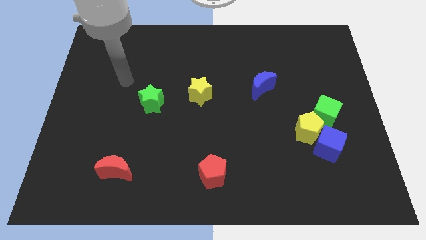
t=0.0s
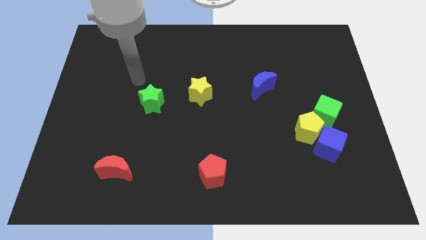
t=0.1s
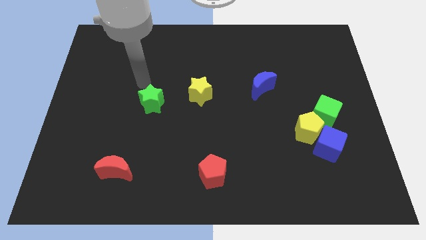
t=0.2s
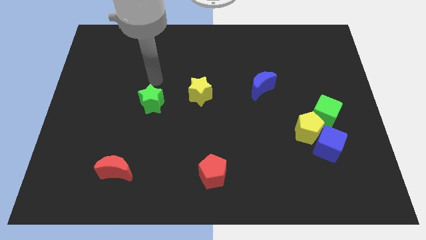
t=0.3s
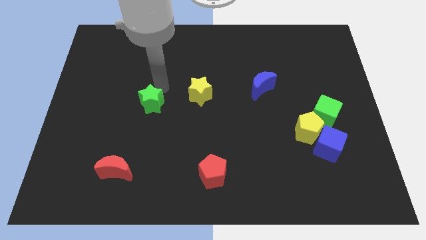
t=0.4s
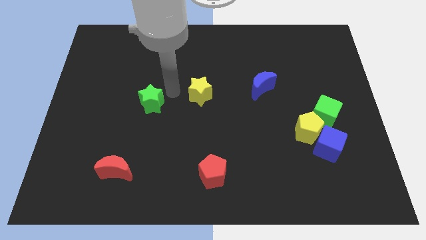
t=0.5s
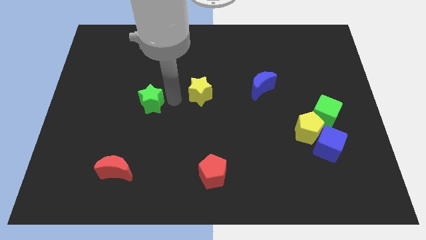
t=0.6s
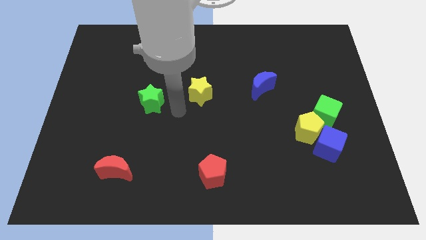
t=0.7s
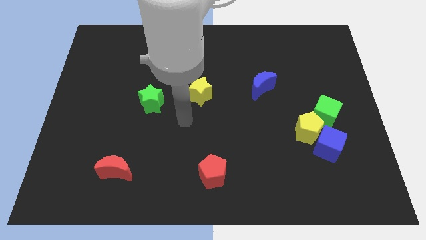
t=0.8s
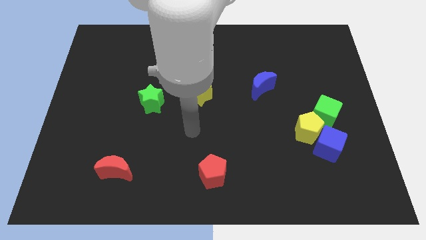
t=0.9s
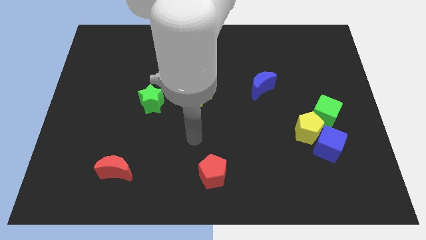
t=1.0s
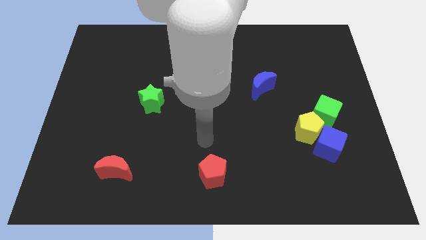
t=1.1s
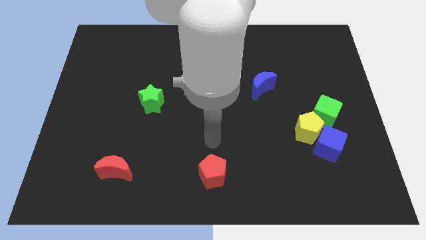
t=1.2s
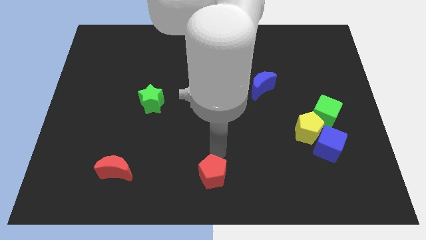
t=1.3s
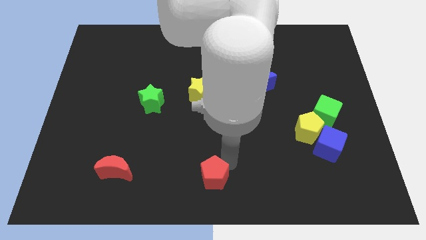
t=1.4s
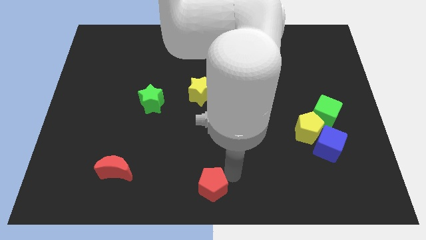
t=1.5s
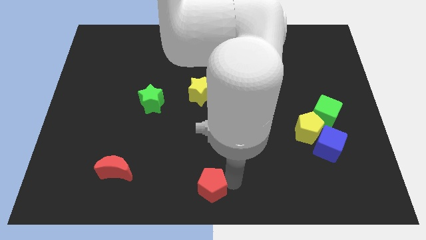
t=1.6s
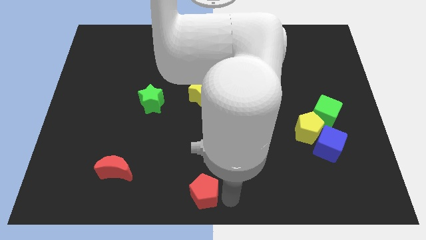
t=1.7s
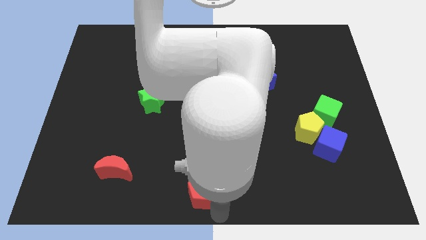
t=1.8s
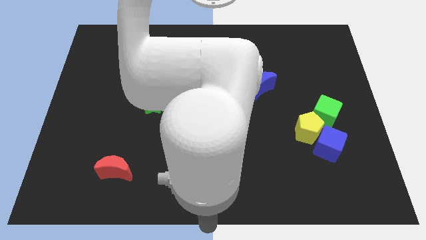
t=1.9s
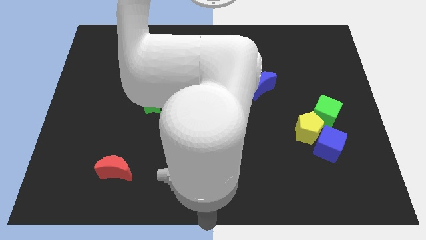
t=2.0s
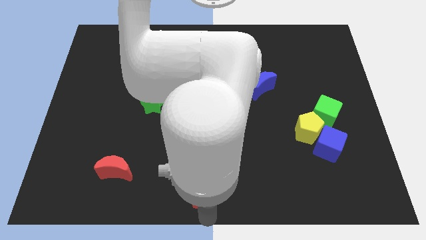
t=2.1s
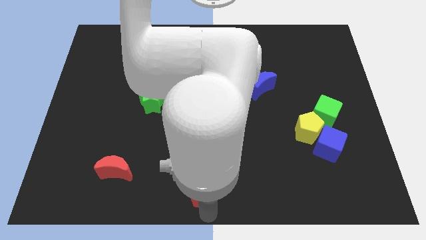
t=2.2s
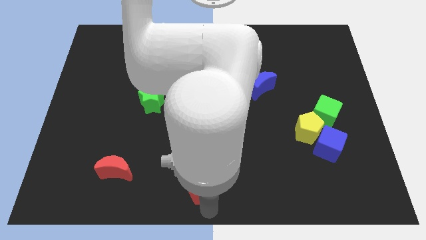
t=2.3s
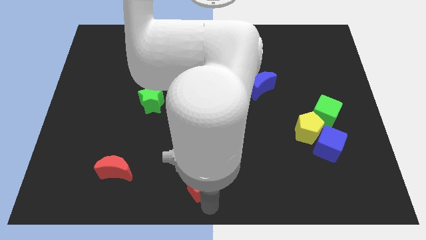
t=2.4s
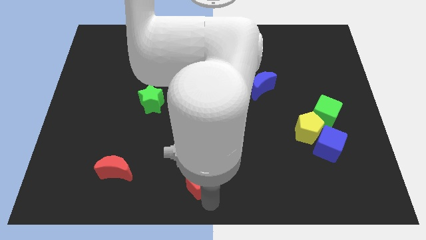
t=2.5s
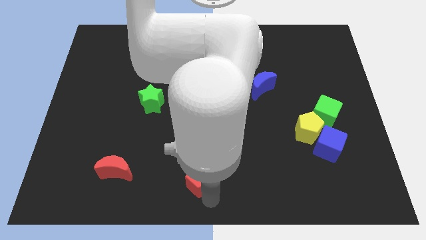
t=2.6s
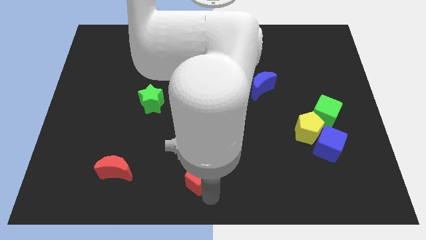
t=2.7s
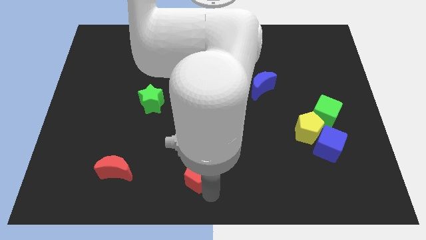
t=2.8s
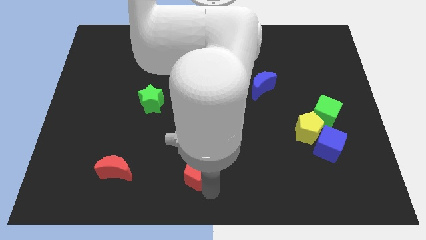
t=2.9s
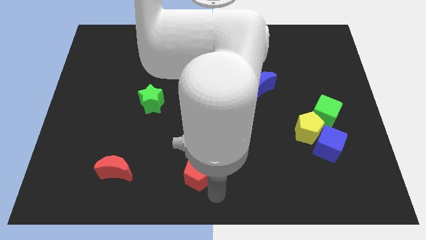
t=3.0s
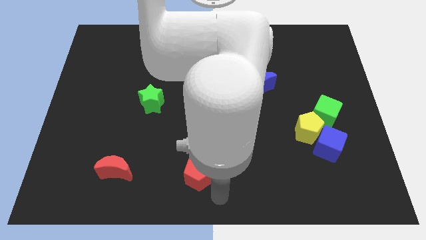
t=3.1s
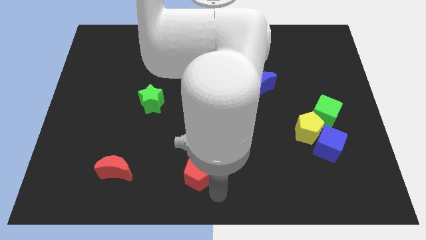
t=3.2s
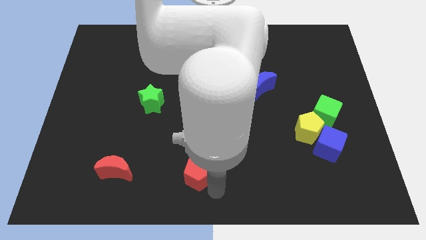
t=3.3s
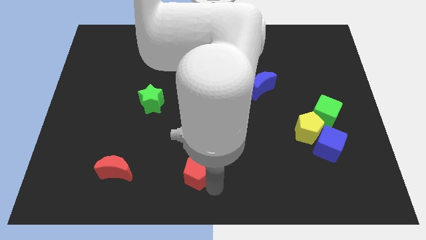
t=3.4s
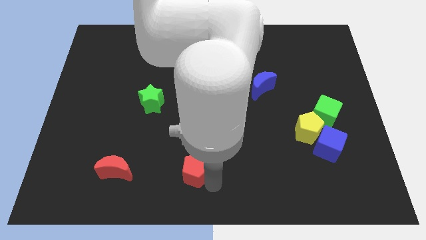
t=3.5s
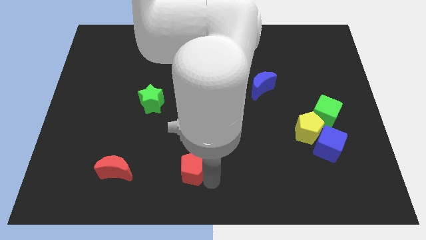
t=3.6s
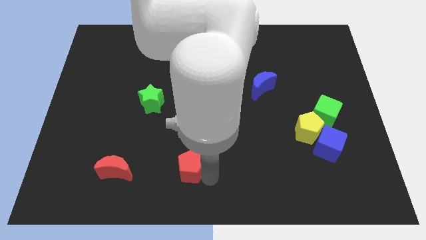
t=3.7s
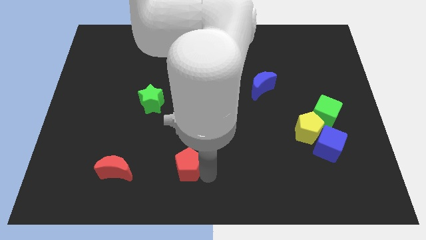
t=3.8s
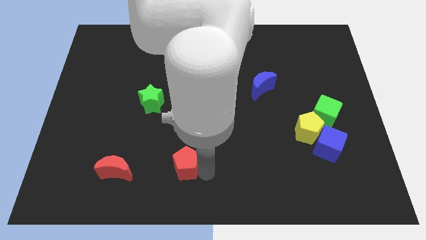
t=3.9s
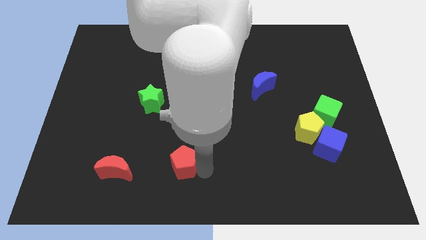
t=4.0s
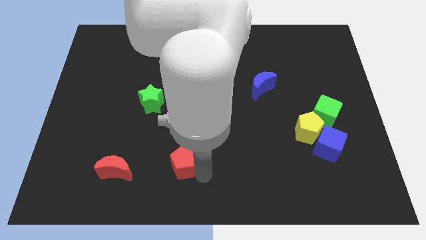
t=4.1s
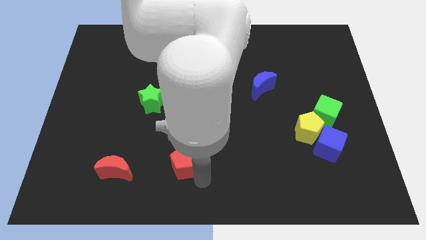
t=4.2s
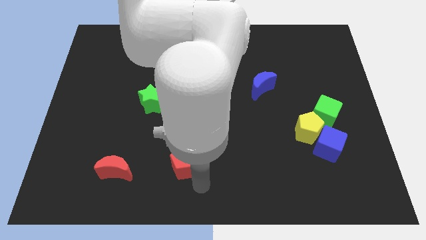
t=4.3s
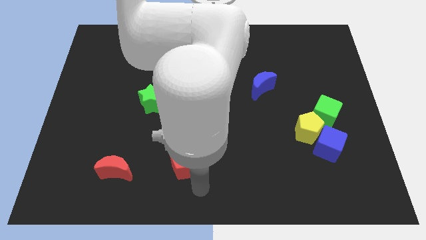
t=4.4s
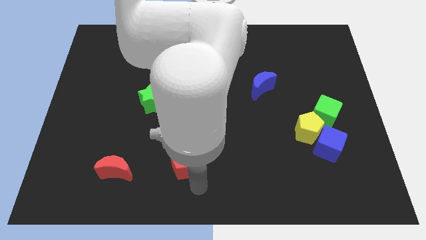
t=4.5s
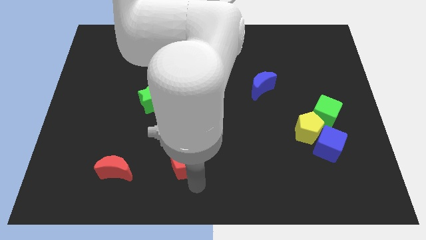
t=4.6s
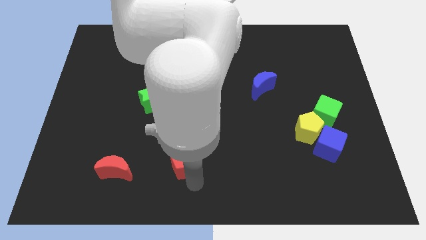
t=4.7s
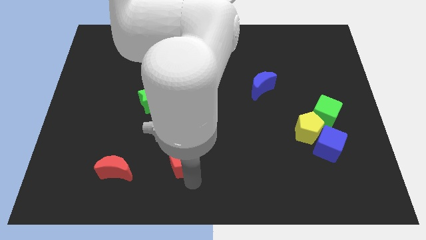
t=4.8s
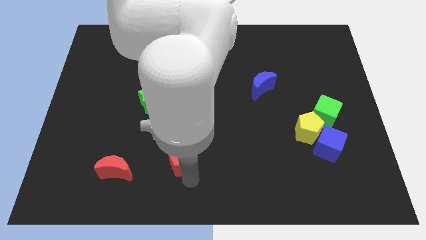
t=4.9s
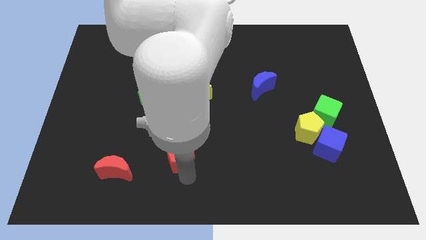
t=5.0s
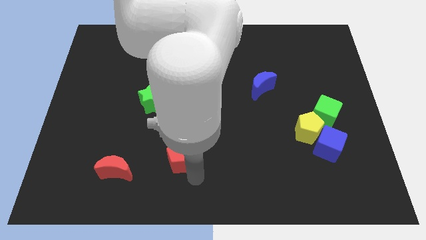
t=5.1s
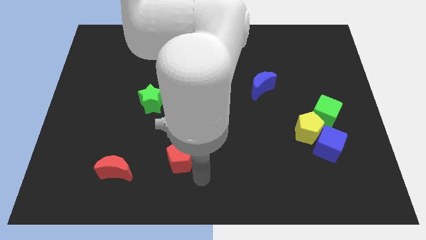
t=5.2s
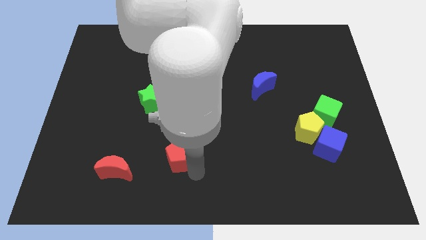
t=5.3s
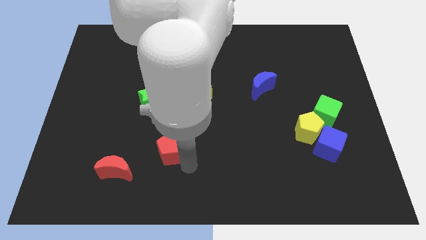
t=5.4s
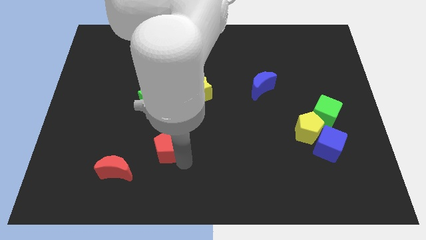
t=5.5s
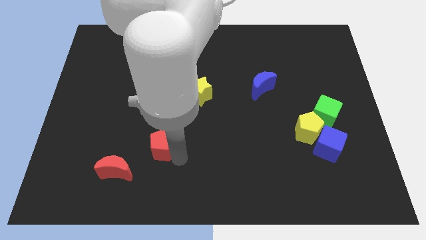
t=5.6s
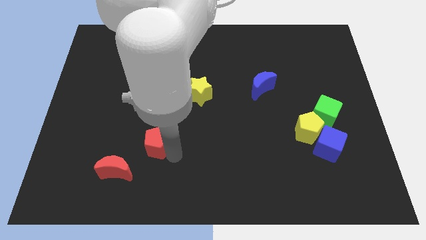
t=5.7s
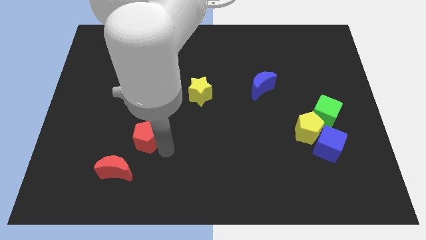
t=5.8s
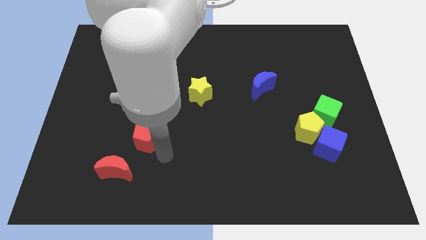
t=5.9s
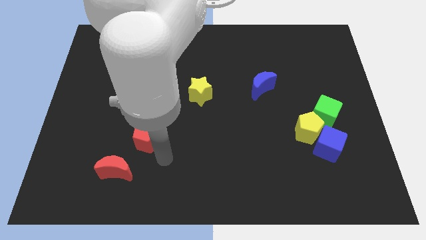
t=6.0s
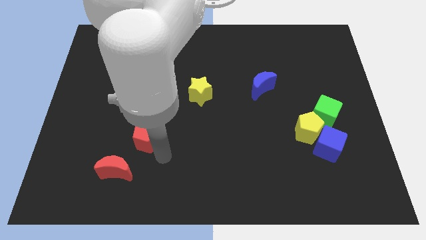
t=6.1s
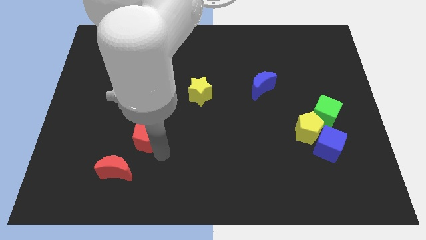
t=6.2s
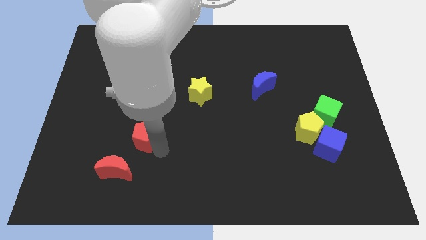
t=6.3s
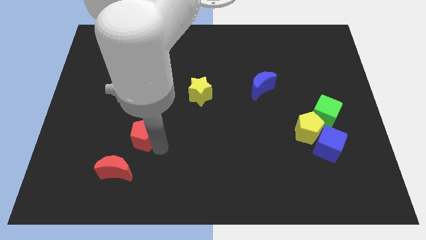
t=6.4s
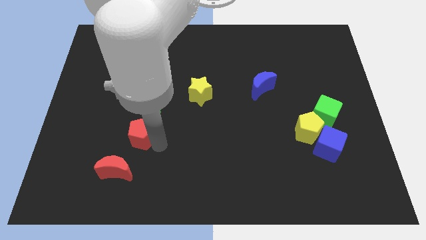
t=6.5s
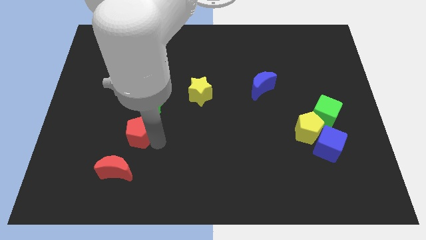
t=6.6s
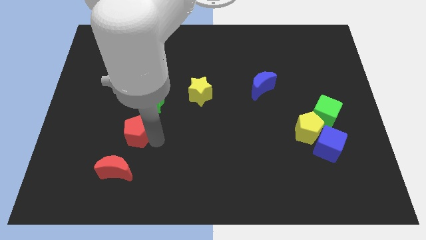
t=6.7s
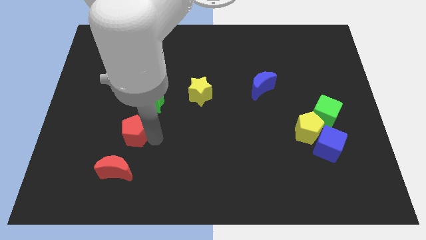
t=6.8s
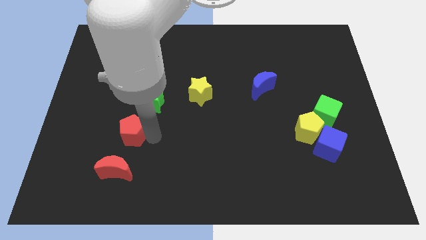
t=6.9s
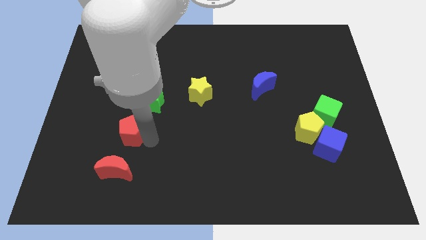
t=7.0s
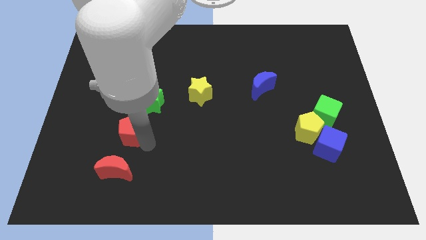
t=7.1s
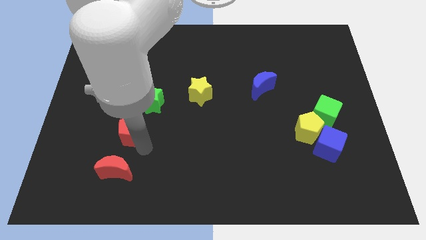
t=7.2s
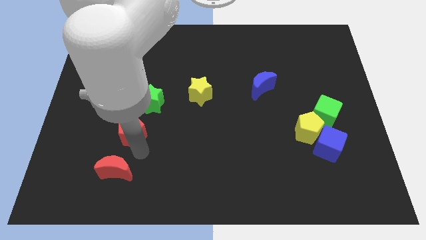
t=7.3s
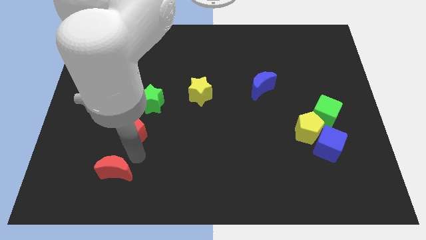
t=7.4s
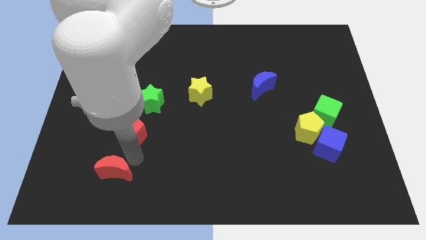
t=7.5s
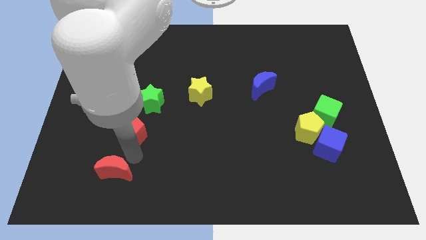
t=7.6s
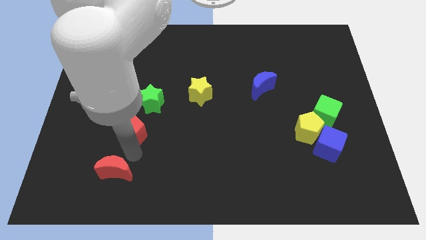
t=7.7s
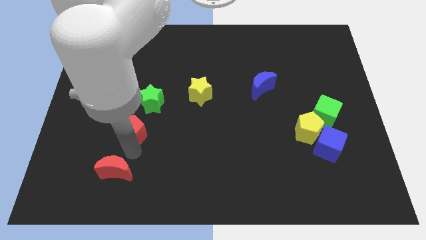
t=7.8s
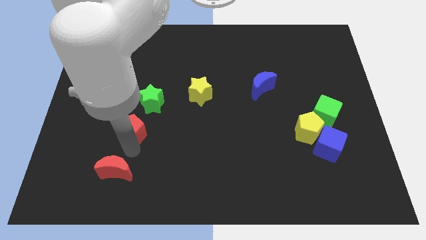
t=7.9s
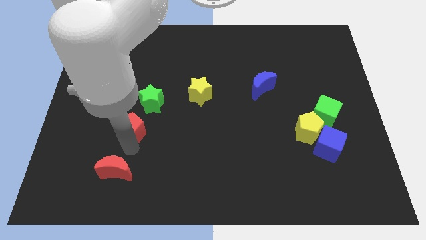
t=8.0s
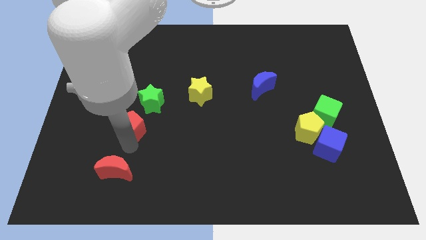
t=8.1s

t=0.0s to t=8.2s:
slide the red pentagon upwards and left diagonally

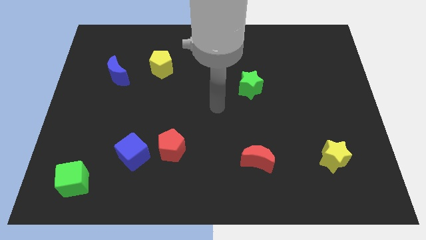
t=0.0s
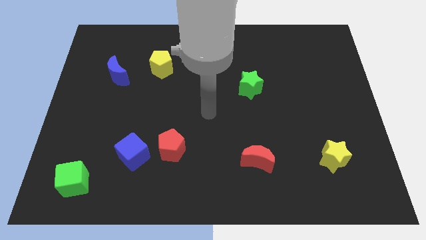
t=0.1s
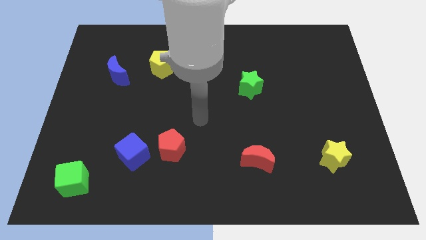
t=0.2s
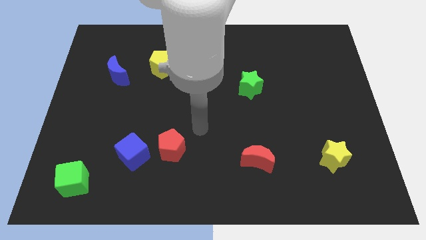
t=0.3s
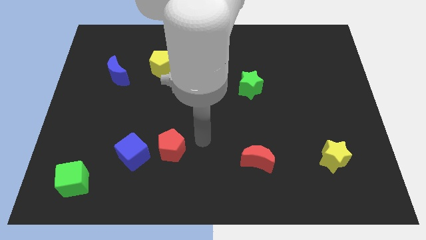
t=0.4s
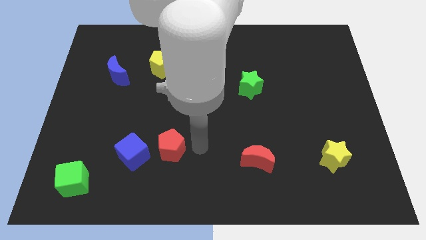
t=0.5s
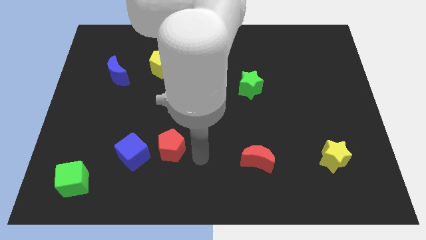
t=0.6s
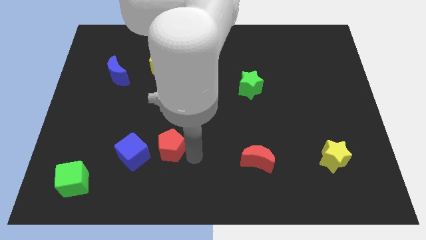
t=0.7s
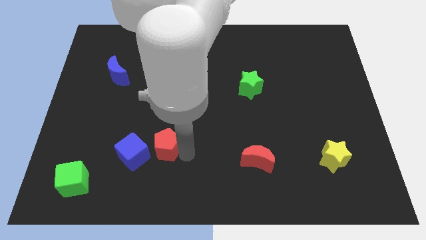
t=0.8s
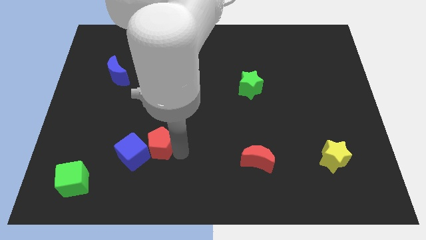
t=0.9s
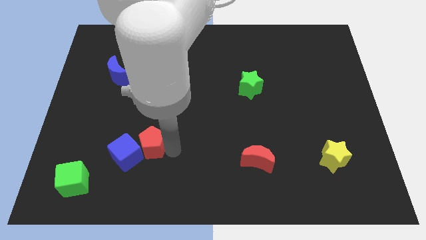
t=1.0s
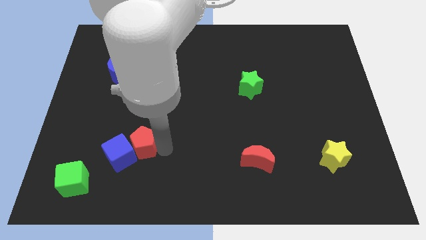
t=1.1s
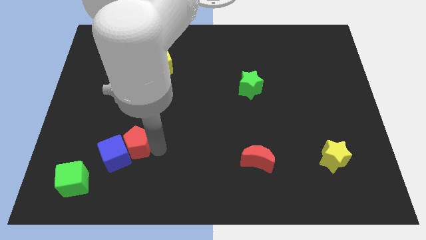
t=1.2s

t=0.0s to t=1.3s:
slightly slide the red pentagon left
